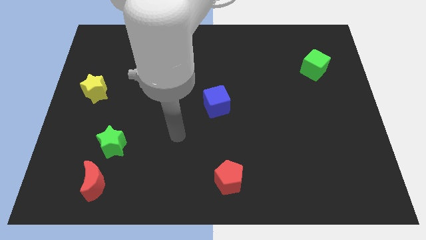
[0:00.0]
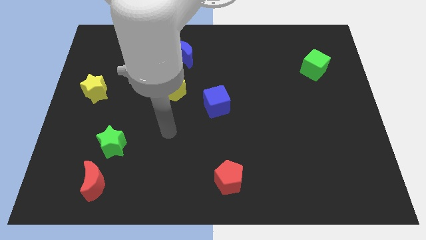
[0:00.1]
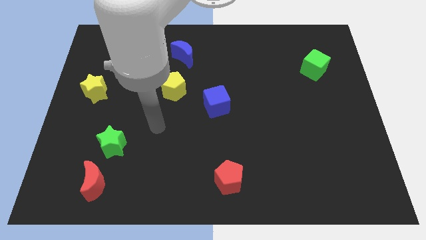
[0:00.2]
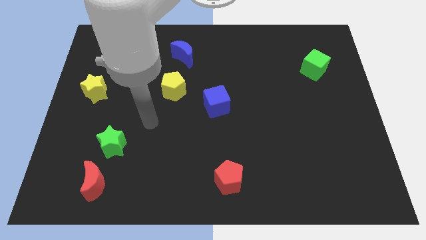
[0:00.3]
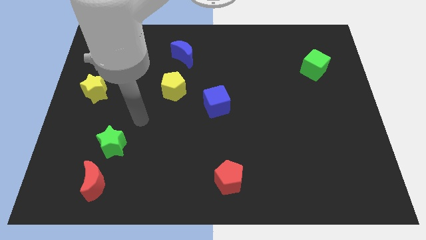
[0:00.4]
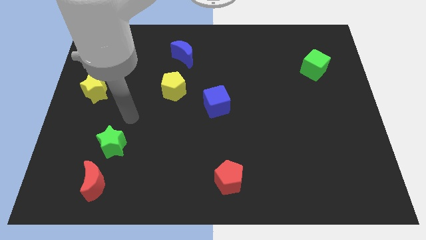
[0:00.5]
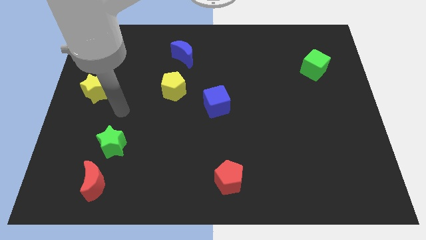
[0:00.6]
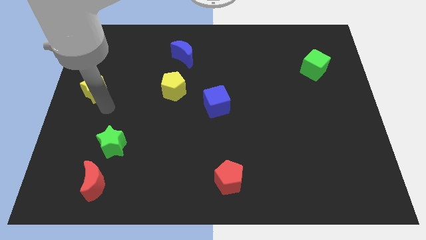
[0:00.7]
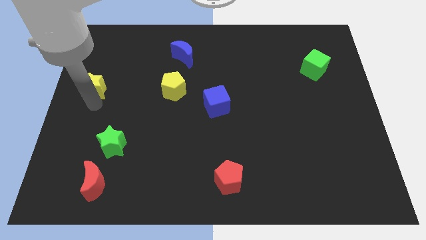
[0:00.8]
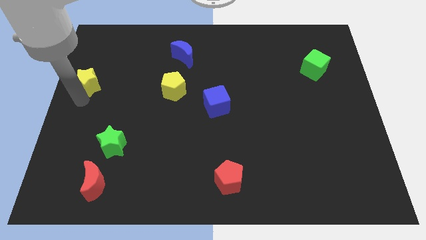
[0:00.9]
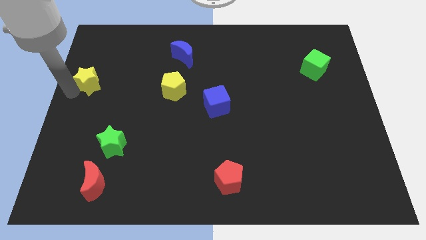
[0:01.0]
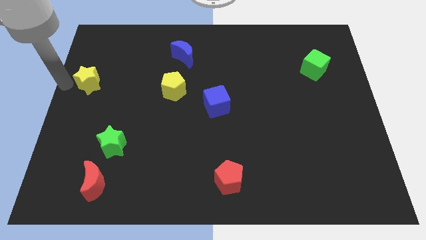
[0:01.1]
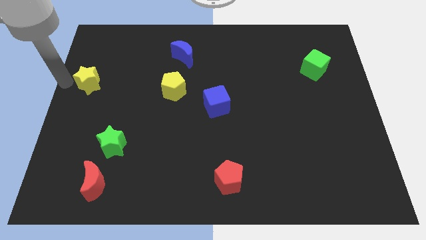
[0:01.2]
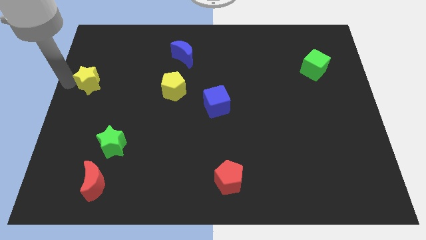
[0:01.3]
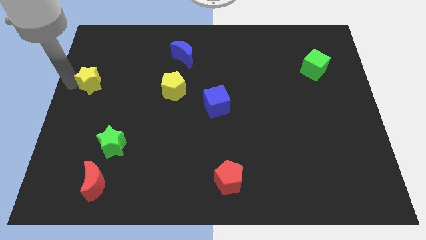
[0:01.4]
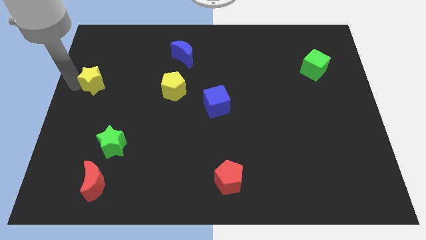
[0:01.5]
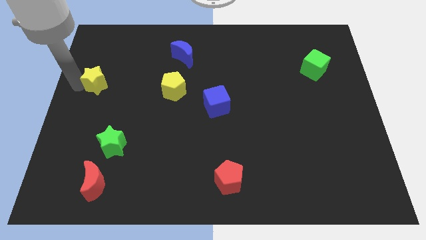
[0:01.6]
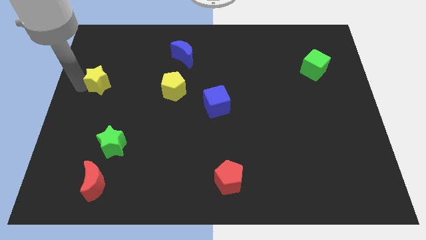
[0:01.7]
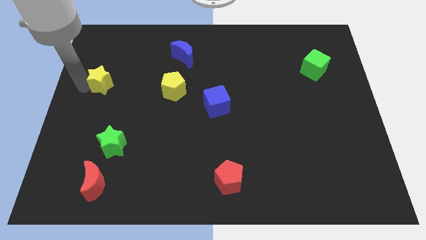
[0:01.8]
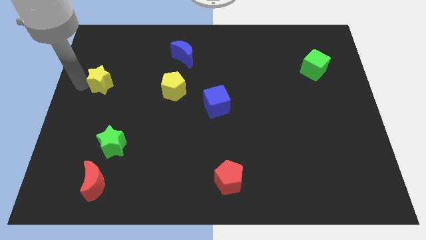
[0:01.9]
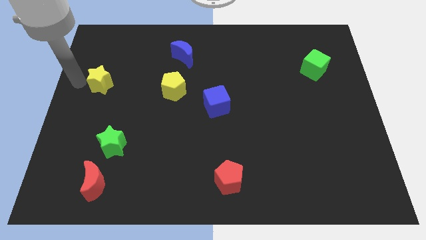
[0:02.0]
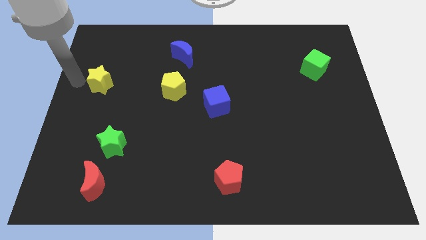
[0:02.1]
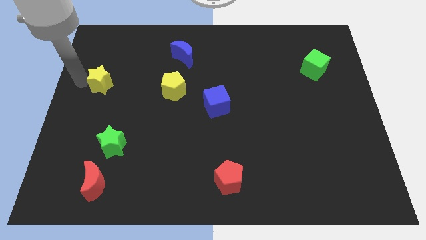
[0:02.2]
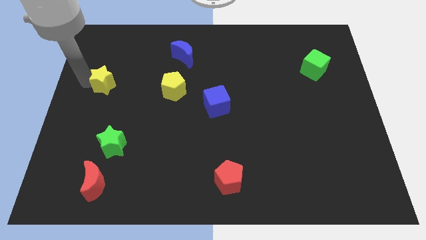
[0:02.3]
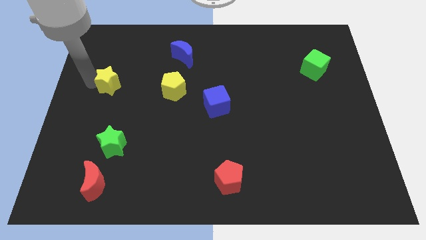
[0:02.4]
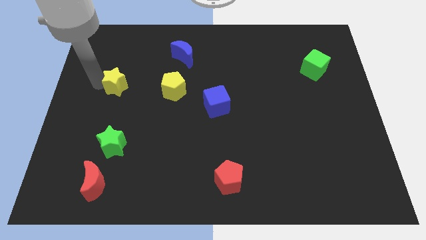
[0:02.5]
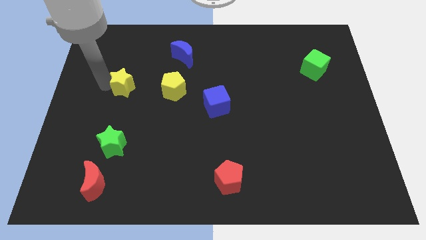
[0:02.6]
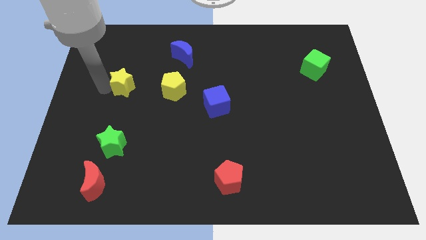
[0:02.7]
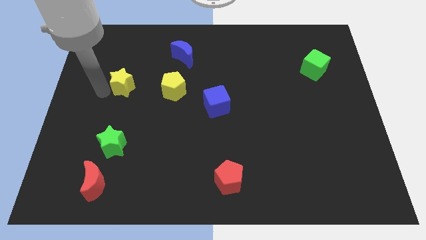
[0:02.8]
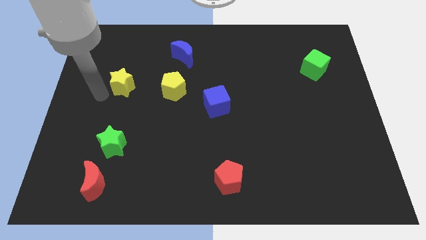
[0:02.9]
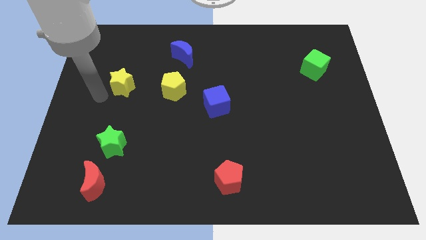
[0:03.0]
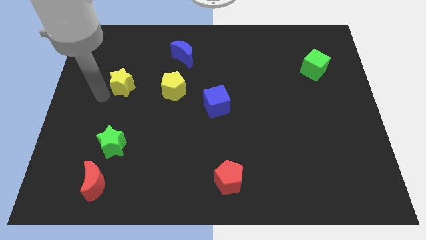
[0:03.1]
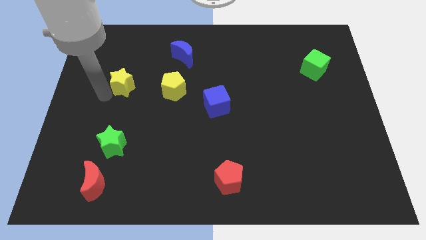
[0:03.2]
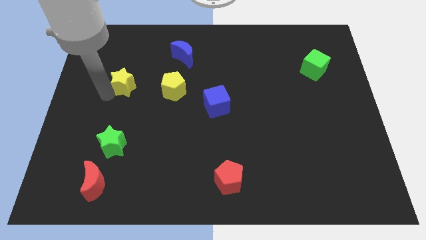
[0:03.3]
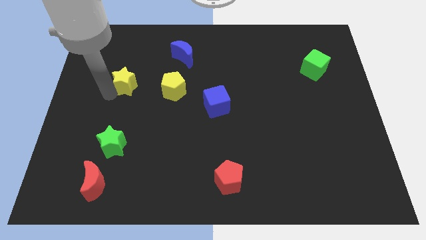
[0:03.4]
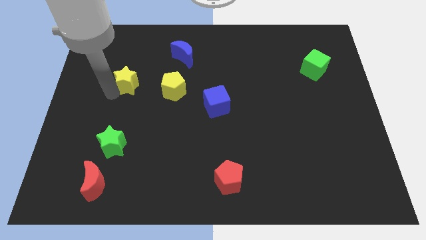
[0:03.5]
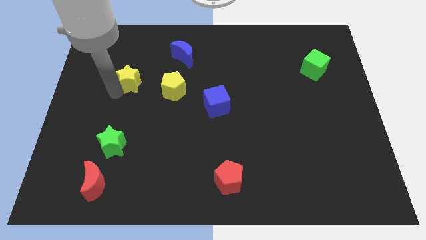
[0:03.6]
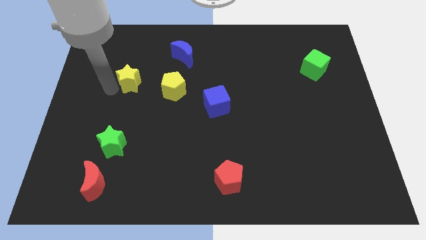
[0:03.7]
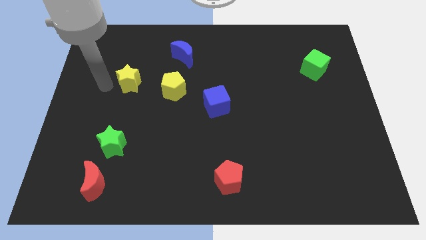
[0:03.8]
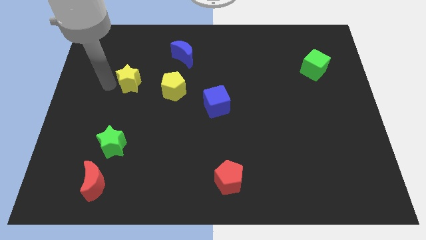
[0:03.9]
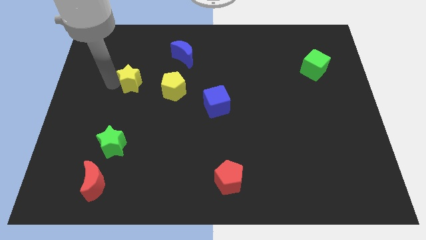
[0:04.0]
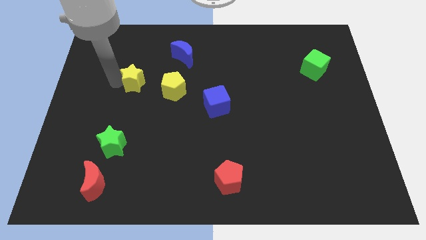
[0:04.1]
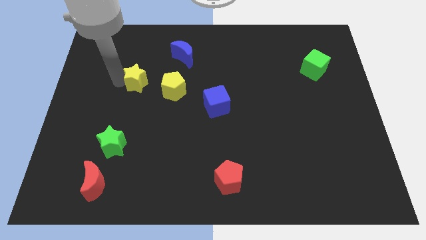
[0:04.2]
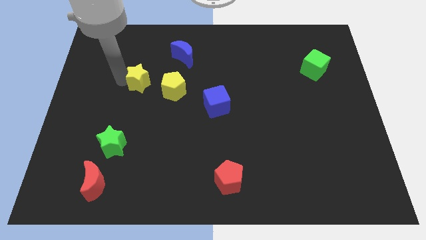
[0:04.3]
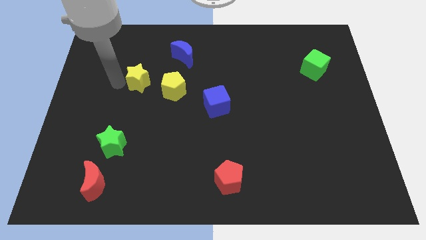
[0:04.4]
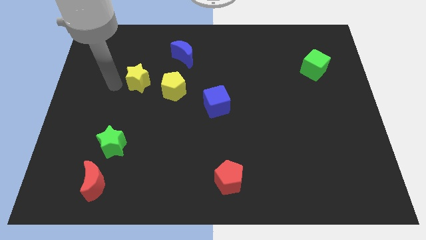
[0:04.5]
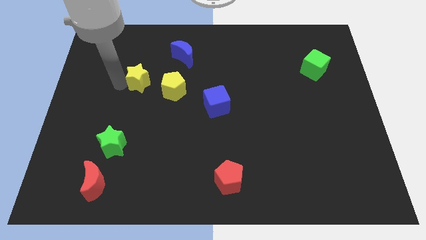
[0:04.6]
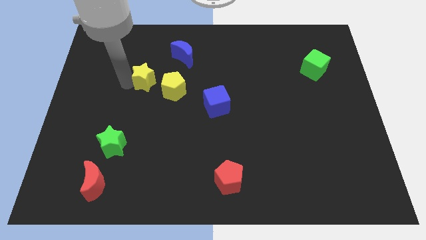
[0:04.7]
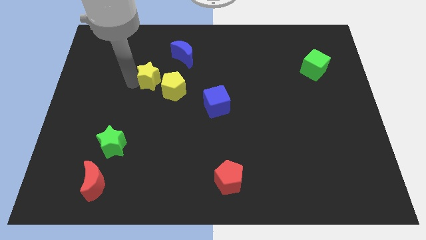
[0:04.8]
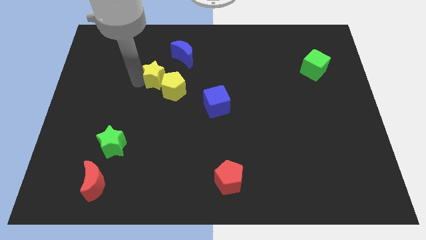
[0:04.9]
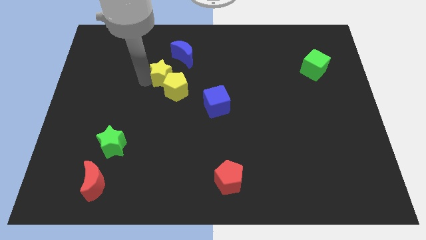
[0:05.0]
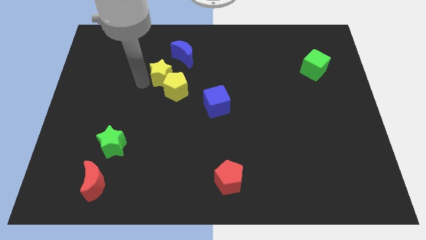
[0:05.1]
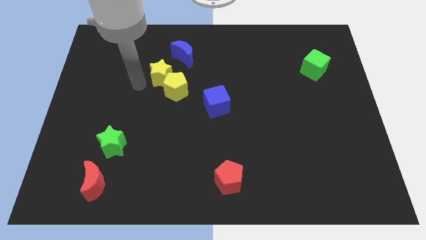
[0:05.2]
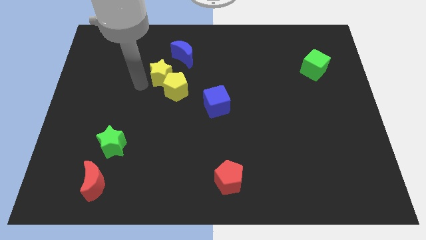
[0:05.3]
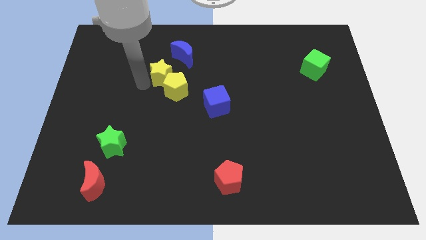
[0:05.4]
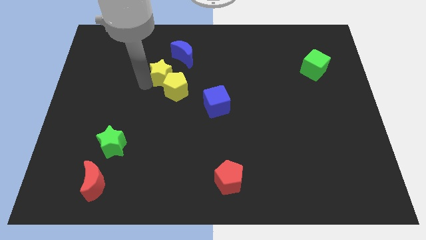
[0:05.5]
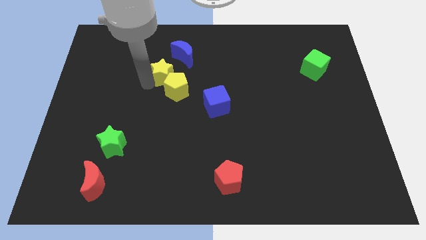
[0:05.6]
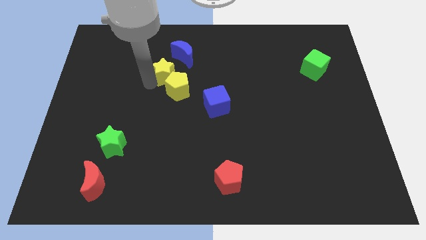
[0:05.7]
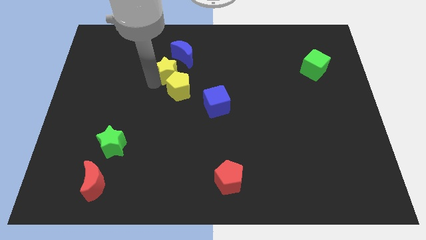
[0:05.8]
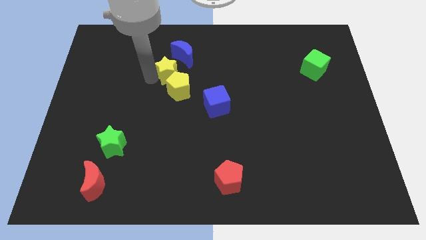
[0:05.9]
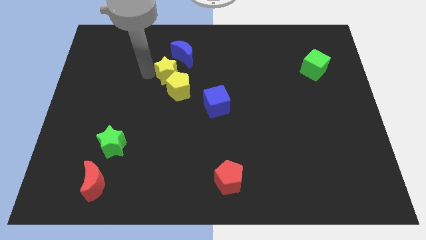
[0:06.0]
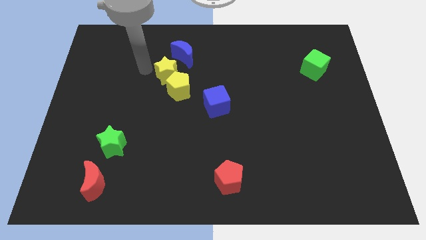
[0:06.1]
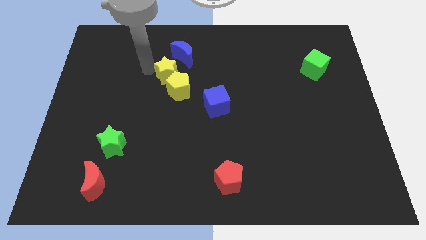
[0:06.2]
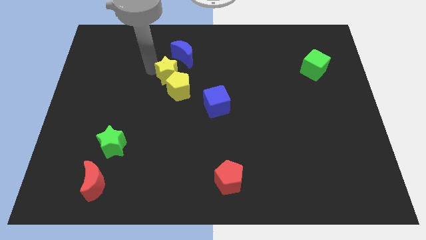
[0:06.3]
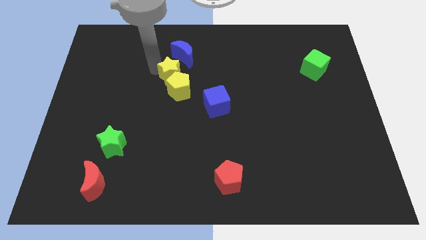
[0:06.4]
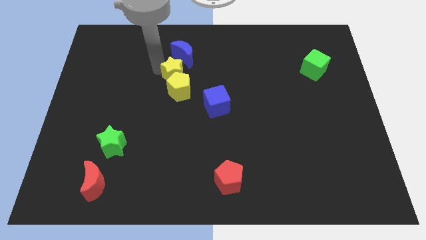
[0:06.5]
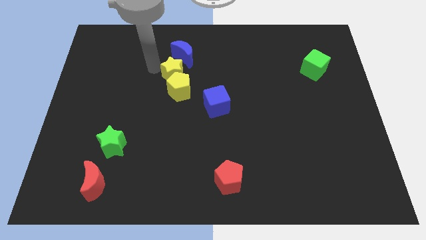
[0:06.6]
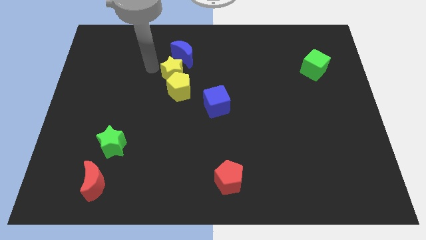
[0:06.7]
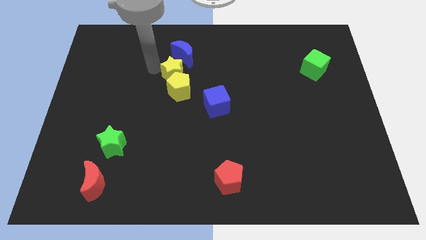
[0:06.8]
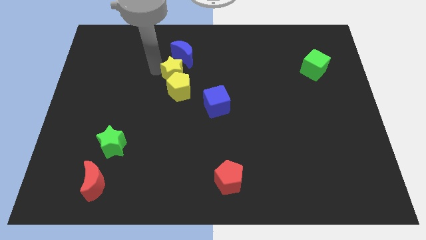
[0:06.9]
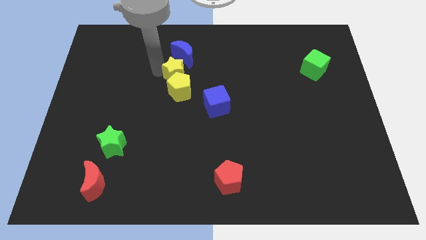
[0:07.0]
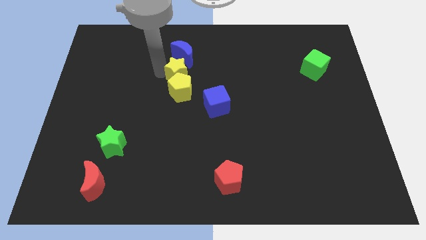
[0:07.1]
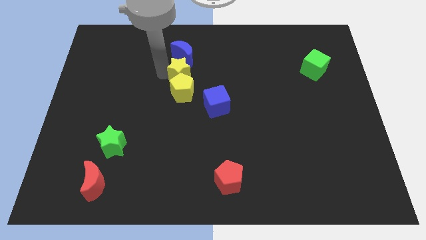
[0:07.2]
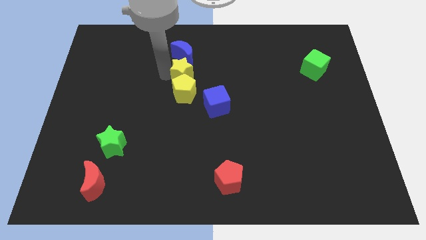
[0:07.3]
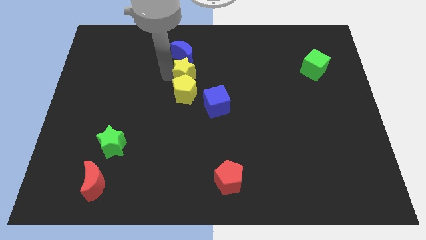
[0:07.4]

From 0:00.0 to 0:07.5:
push the yellow star to the right

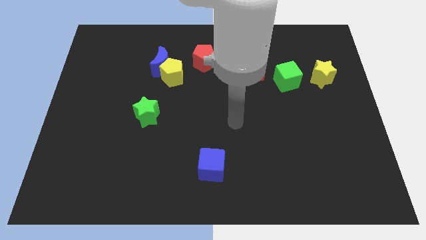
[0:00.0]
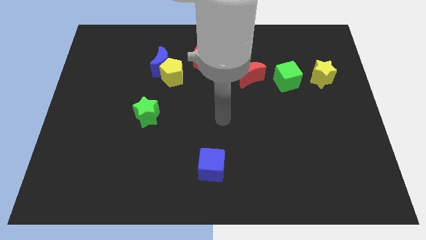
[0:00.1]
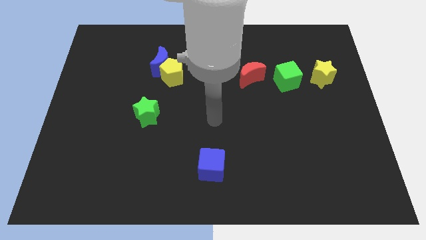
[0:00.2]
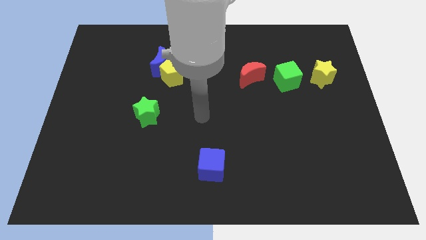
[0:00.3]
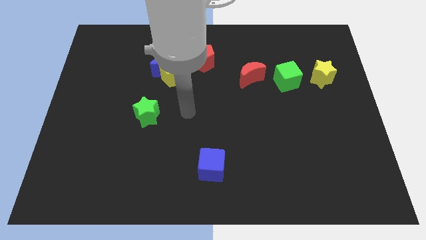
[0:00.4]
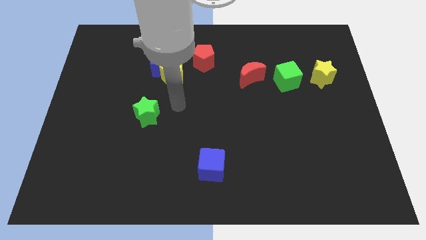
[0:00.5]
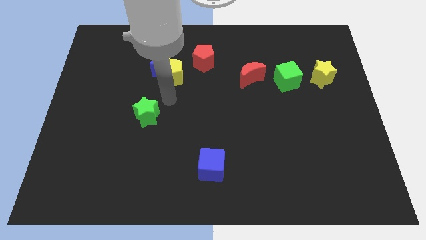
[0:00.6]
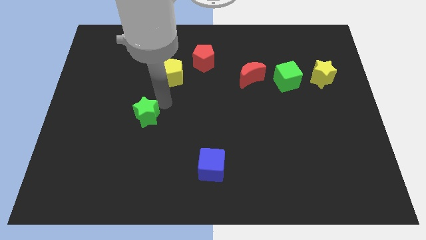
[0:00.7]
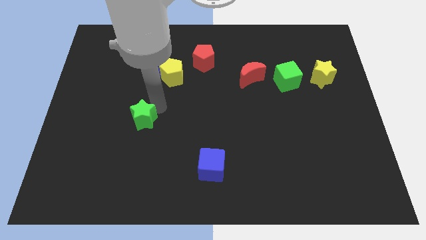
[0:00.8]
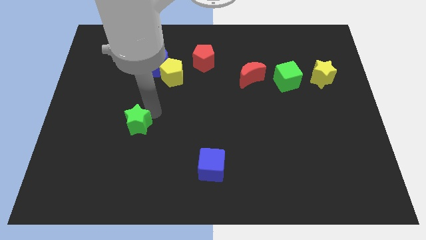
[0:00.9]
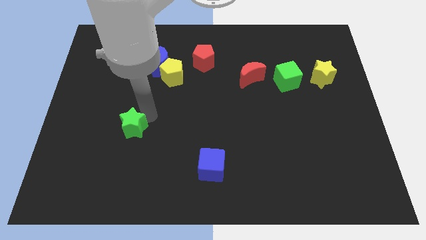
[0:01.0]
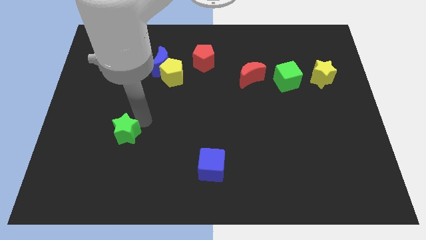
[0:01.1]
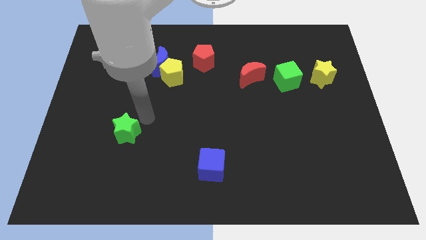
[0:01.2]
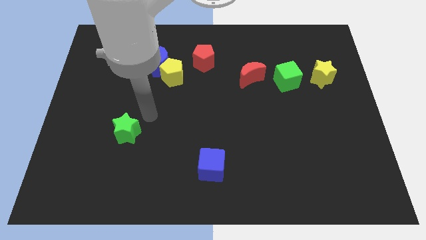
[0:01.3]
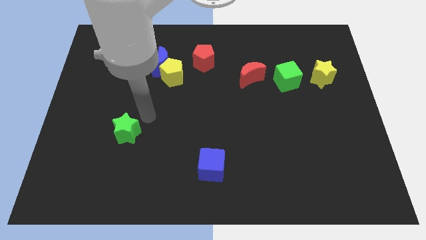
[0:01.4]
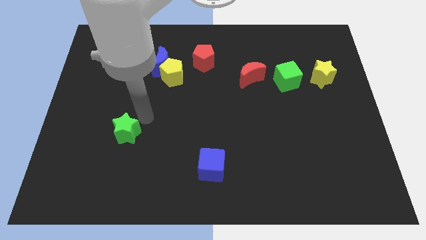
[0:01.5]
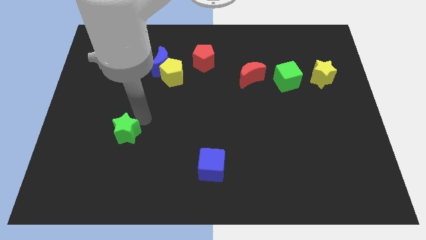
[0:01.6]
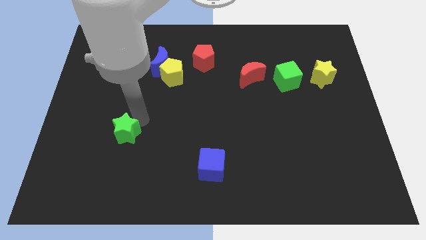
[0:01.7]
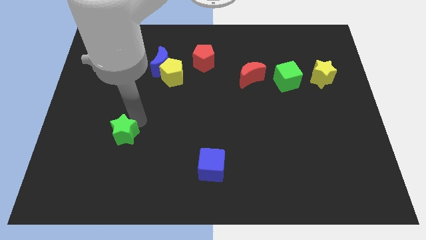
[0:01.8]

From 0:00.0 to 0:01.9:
slide the green star a little bit downwards and then left
